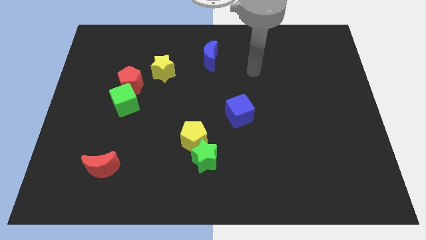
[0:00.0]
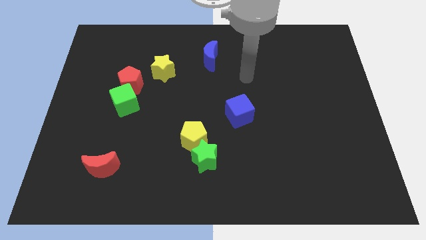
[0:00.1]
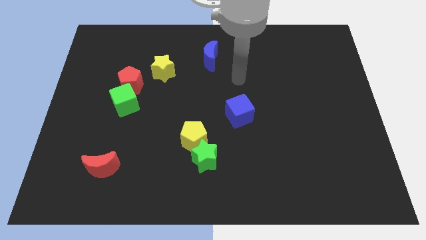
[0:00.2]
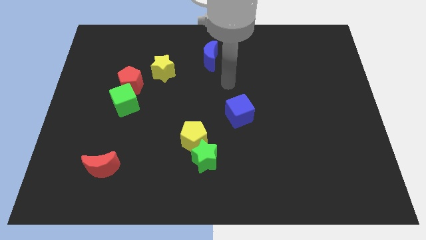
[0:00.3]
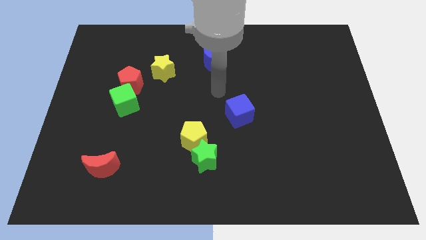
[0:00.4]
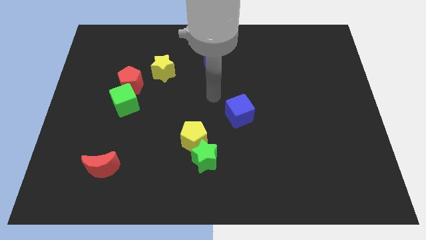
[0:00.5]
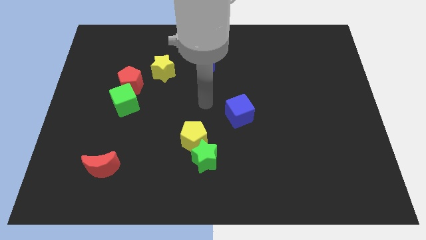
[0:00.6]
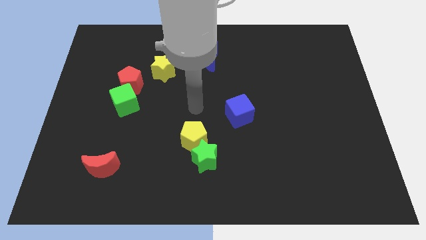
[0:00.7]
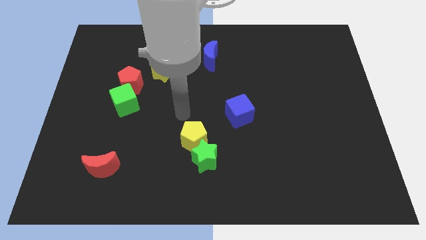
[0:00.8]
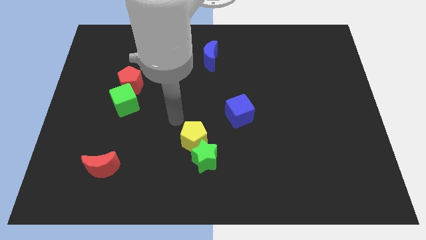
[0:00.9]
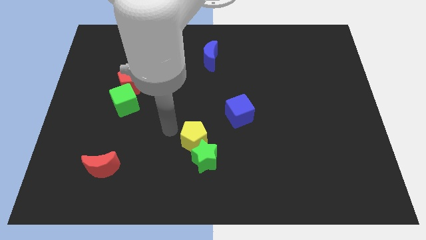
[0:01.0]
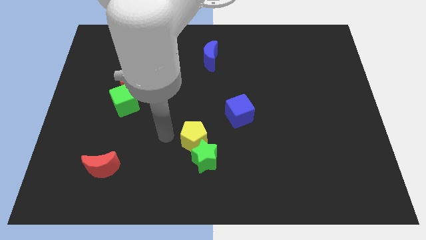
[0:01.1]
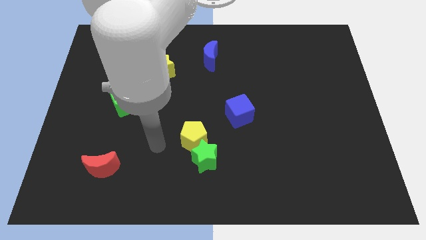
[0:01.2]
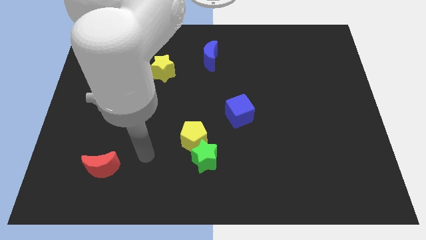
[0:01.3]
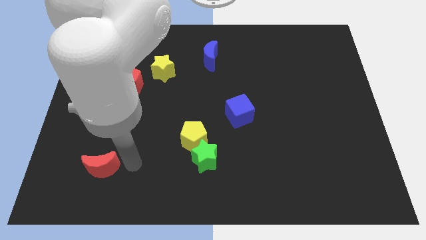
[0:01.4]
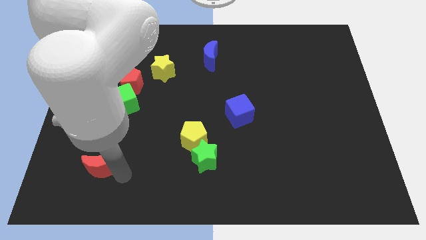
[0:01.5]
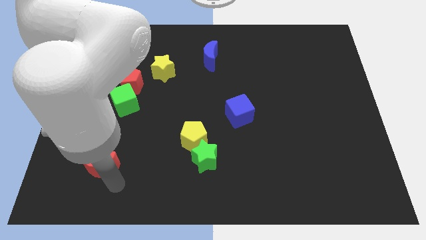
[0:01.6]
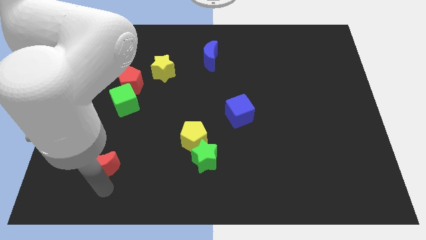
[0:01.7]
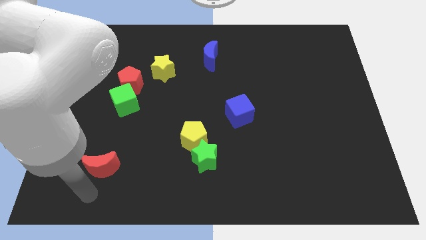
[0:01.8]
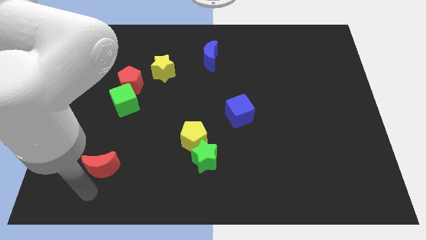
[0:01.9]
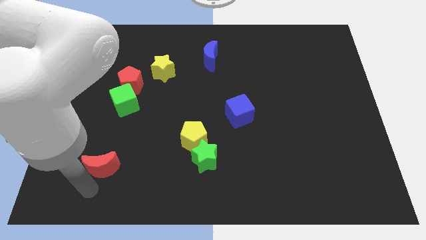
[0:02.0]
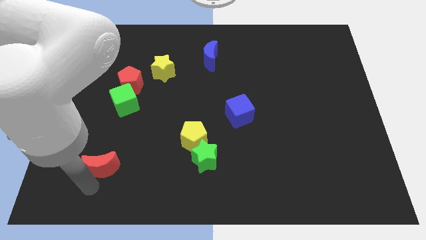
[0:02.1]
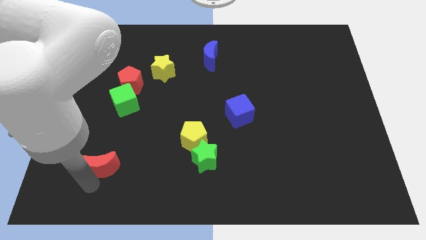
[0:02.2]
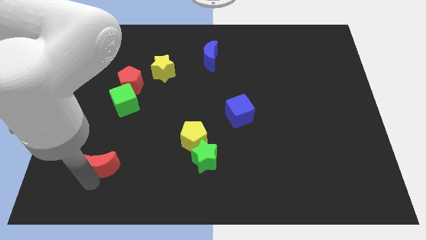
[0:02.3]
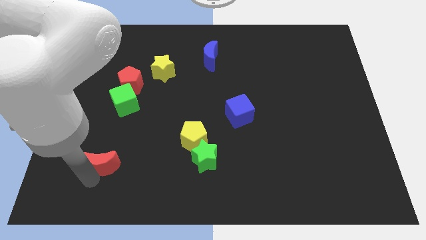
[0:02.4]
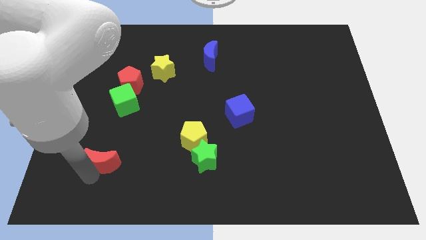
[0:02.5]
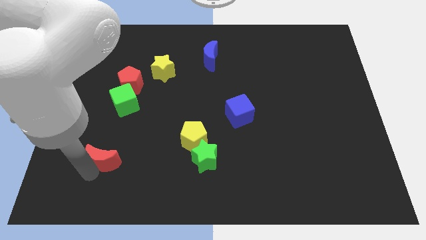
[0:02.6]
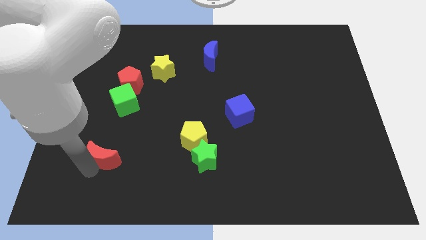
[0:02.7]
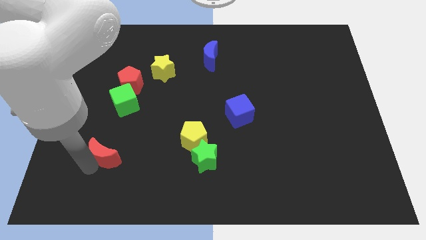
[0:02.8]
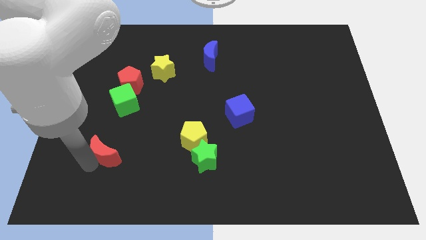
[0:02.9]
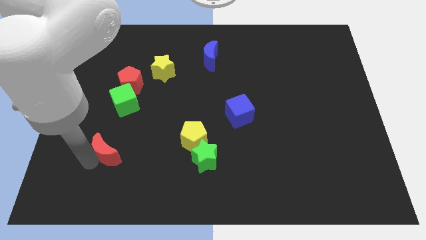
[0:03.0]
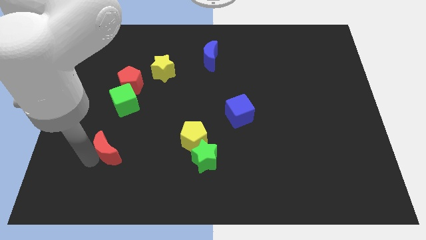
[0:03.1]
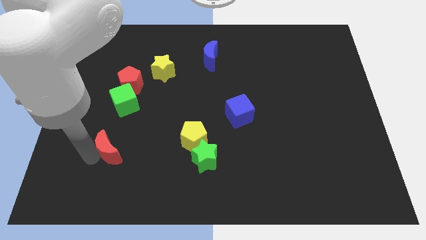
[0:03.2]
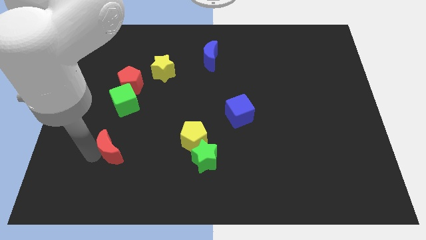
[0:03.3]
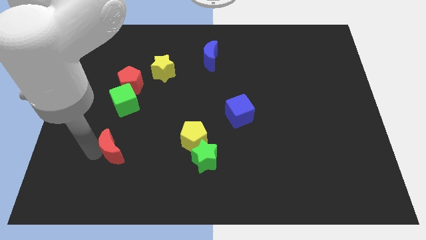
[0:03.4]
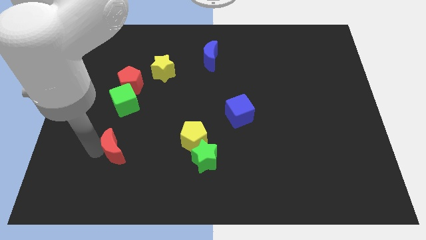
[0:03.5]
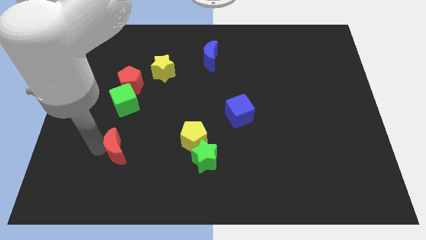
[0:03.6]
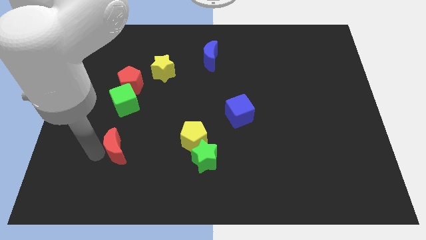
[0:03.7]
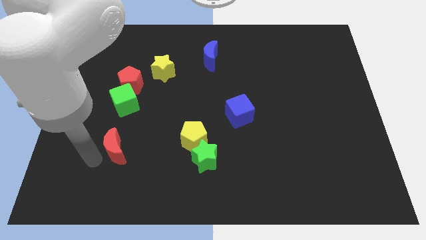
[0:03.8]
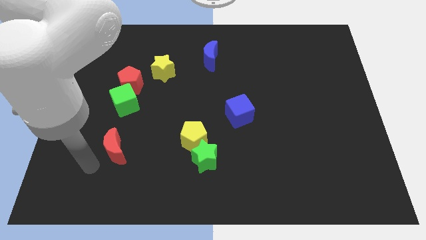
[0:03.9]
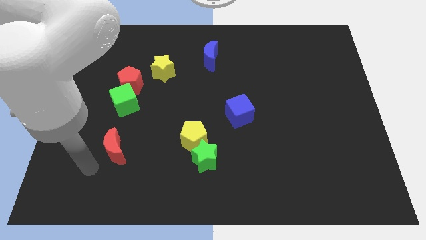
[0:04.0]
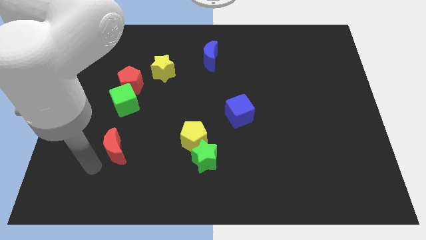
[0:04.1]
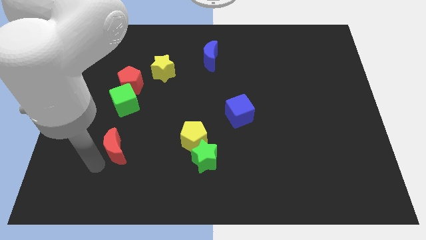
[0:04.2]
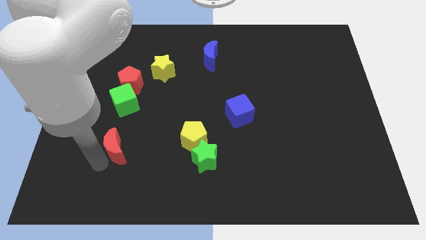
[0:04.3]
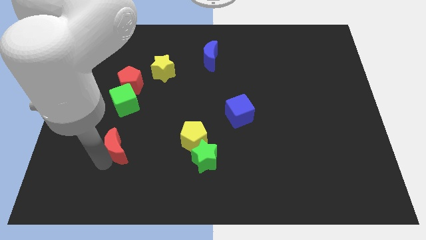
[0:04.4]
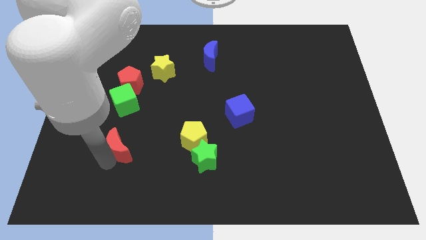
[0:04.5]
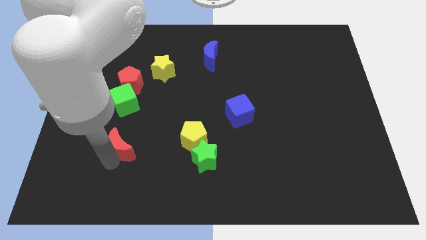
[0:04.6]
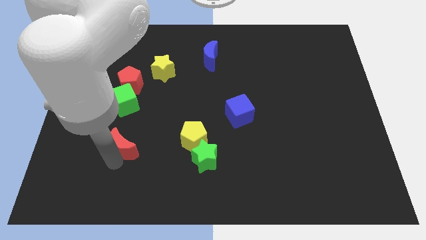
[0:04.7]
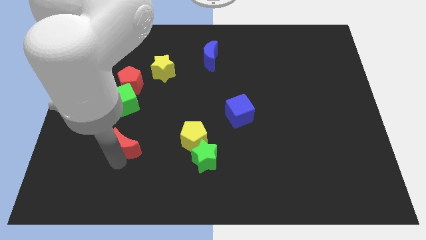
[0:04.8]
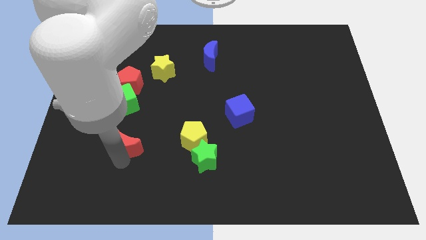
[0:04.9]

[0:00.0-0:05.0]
slide the red moon somewhat upwards and then right

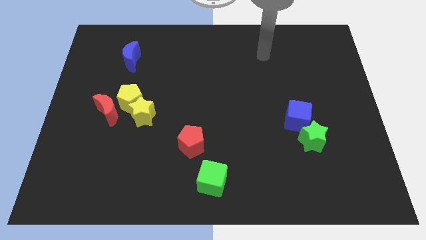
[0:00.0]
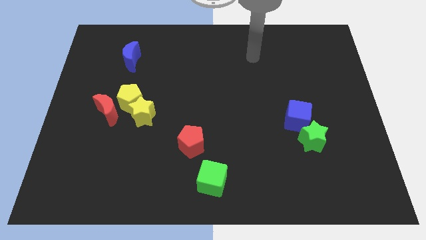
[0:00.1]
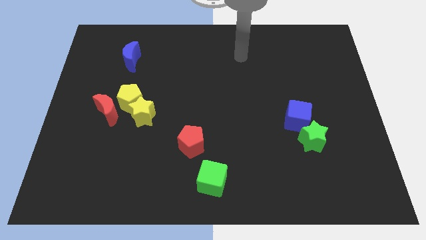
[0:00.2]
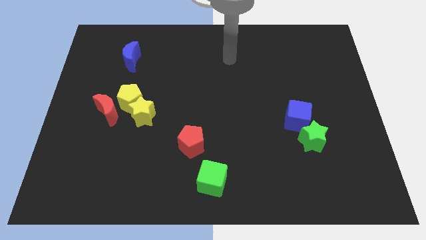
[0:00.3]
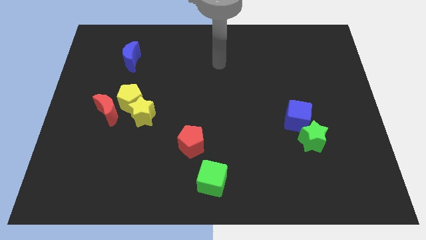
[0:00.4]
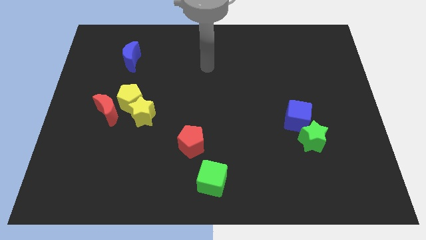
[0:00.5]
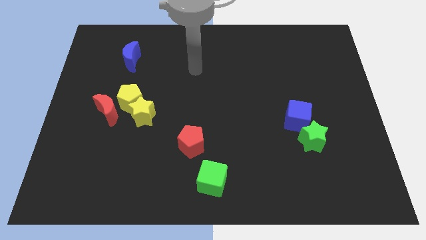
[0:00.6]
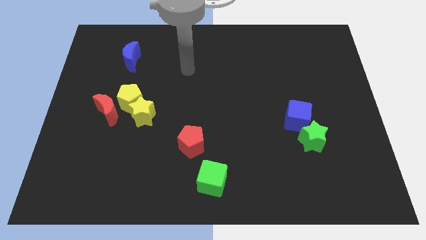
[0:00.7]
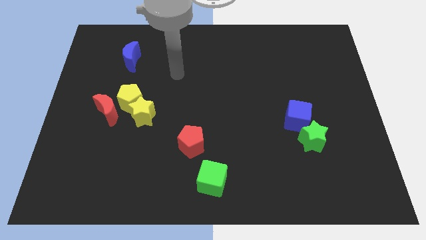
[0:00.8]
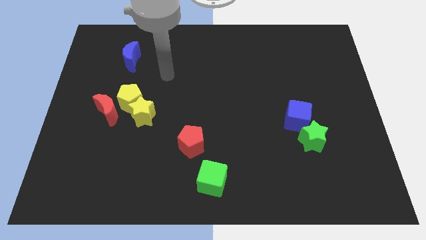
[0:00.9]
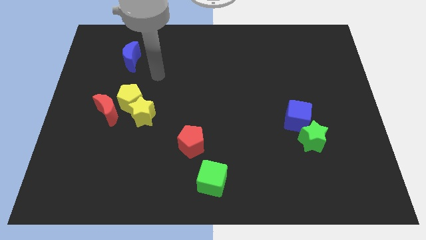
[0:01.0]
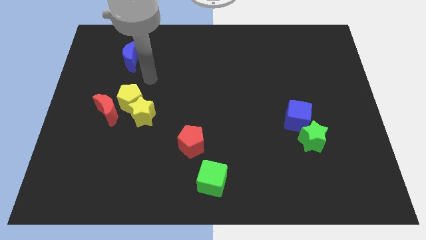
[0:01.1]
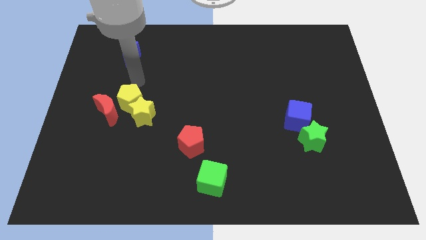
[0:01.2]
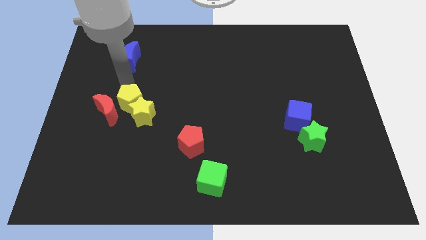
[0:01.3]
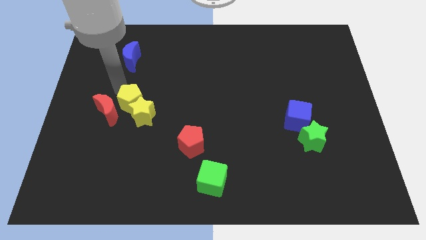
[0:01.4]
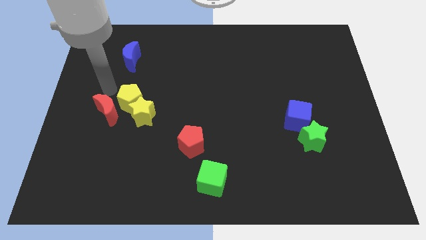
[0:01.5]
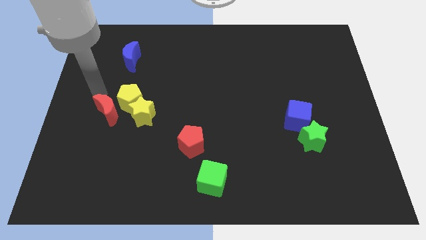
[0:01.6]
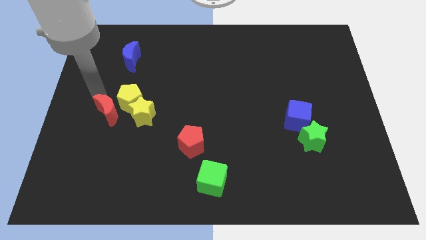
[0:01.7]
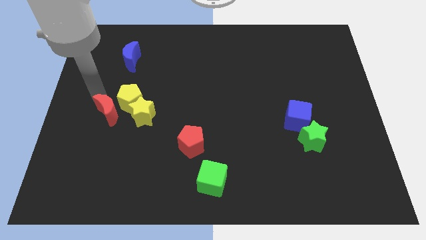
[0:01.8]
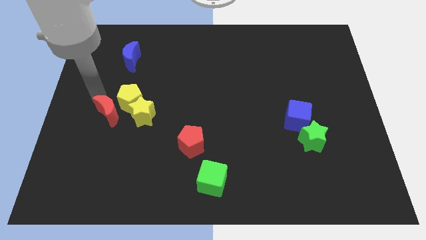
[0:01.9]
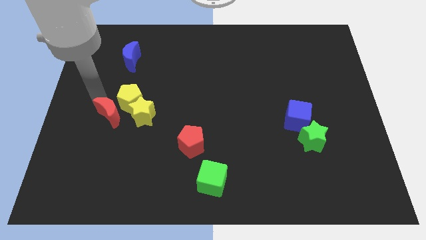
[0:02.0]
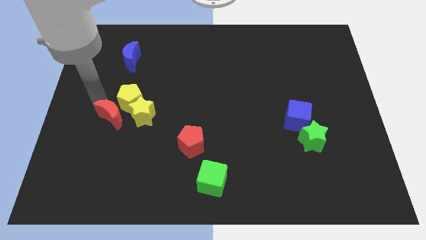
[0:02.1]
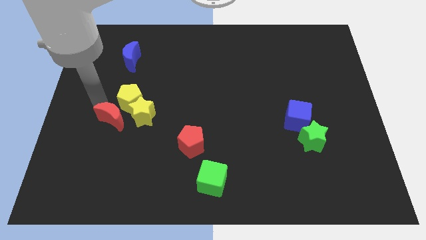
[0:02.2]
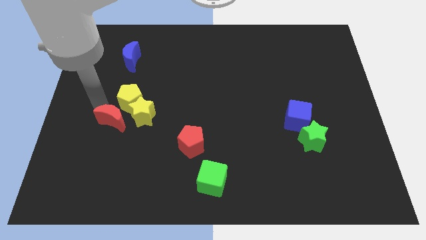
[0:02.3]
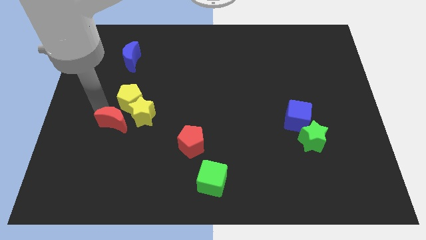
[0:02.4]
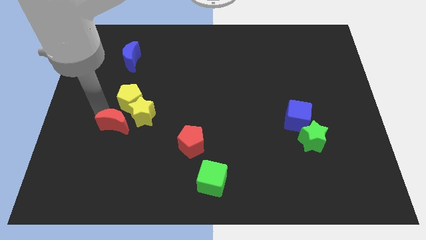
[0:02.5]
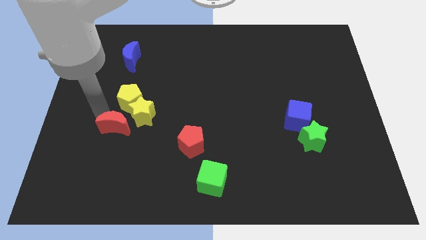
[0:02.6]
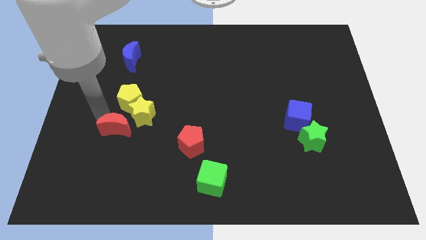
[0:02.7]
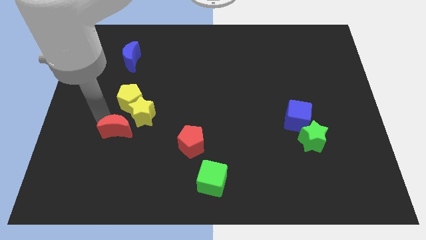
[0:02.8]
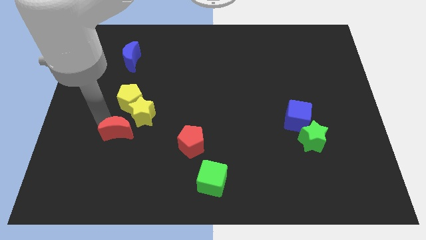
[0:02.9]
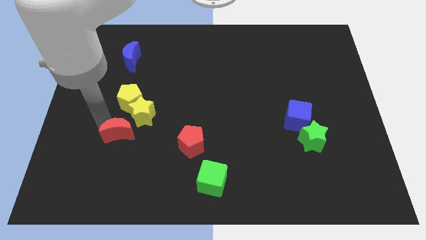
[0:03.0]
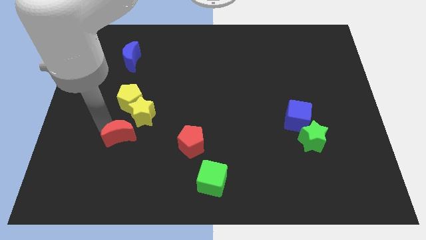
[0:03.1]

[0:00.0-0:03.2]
move the red moon down and then to the right a bit
